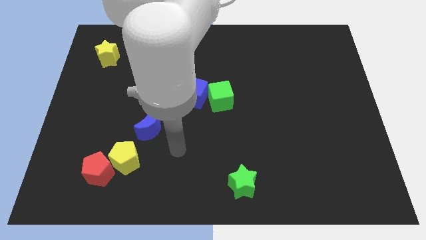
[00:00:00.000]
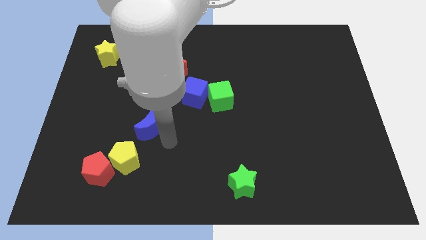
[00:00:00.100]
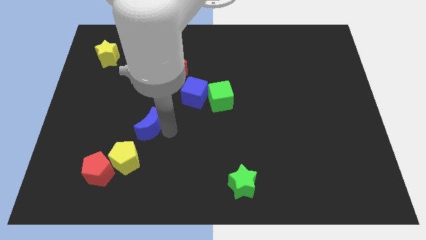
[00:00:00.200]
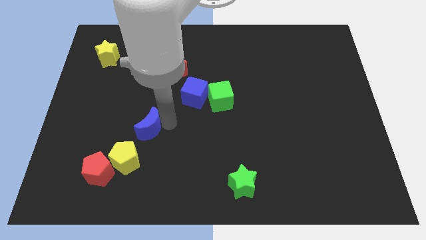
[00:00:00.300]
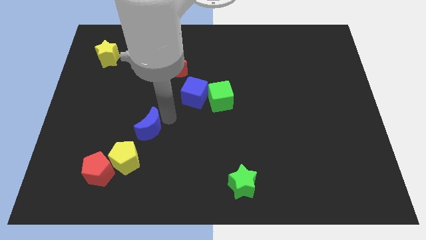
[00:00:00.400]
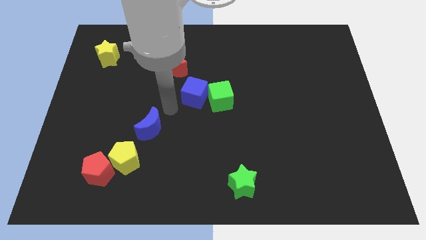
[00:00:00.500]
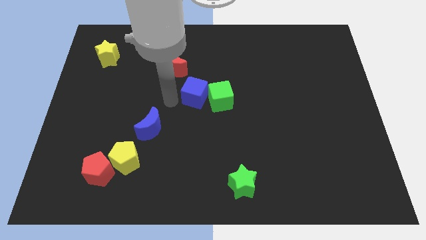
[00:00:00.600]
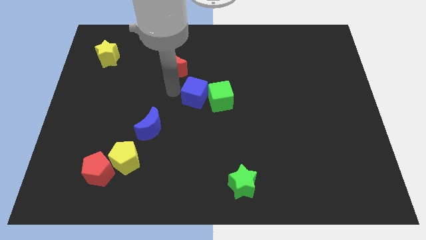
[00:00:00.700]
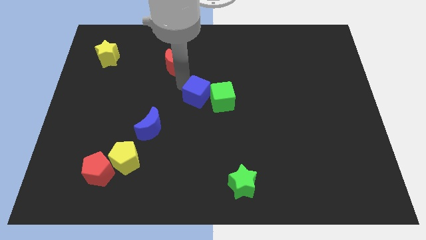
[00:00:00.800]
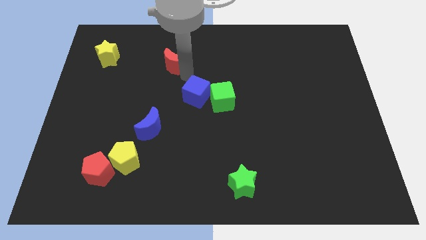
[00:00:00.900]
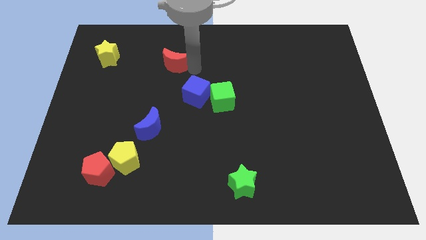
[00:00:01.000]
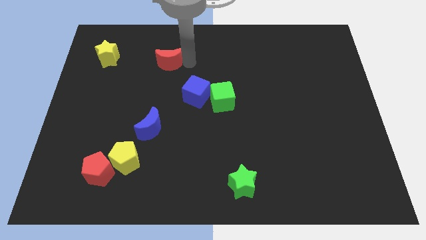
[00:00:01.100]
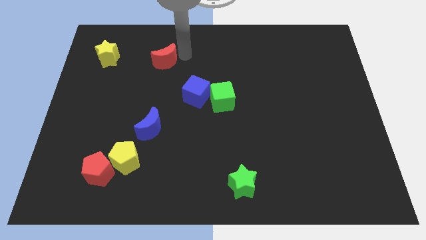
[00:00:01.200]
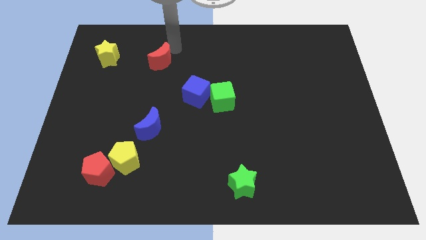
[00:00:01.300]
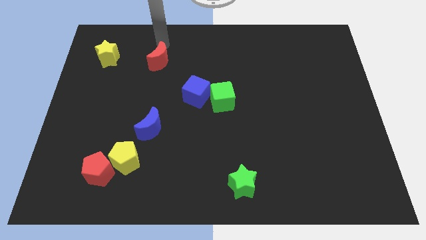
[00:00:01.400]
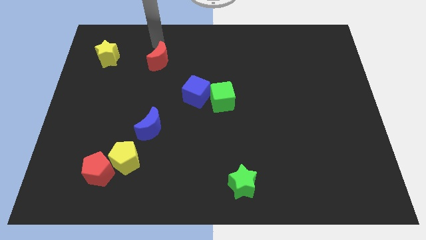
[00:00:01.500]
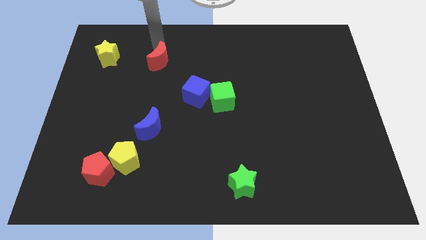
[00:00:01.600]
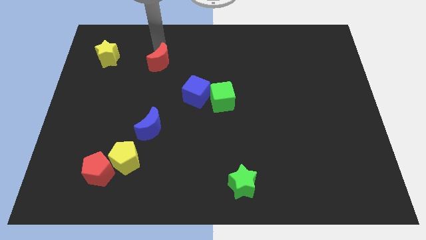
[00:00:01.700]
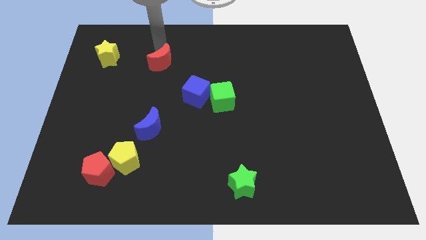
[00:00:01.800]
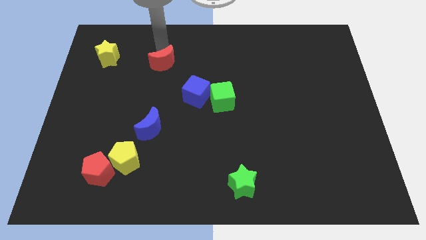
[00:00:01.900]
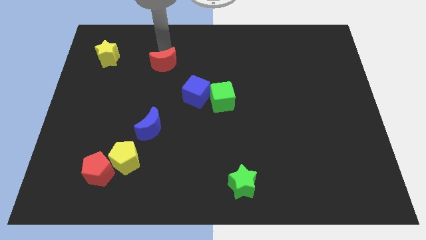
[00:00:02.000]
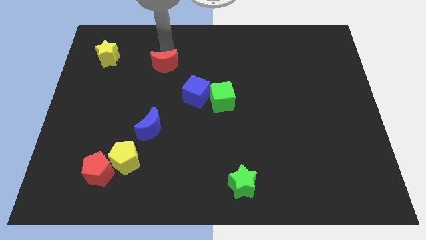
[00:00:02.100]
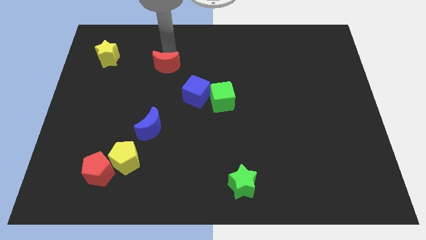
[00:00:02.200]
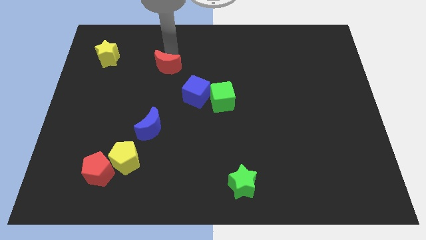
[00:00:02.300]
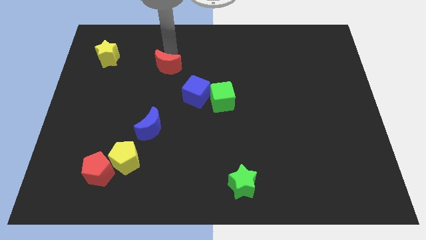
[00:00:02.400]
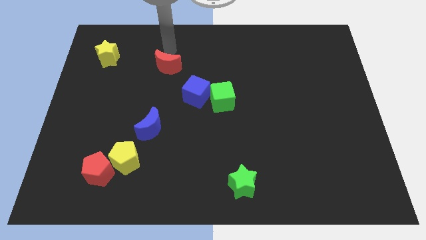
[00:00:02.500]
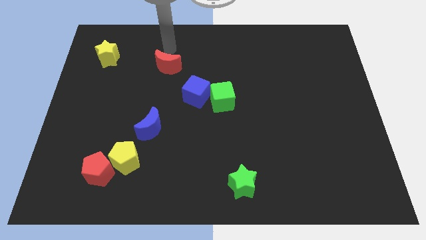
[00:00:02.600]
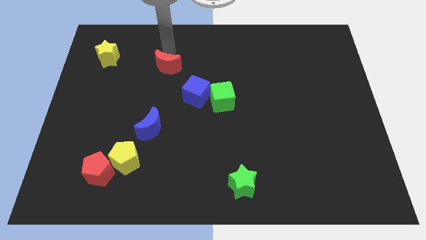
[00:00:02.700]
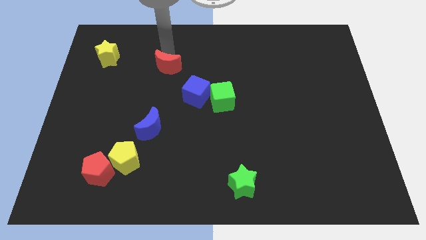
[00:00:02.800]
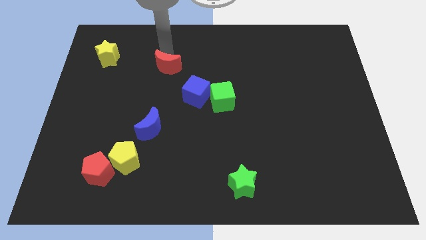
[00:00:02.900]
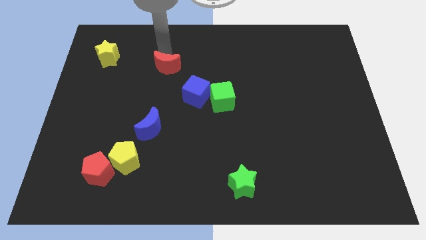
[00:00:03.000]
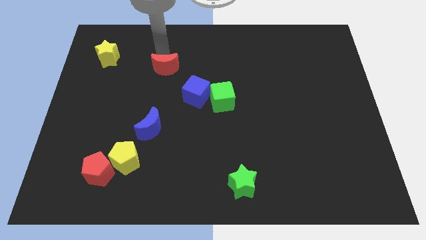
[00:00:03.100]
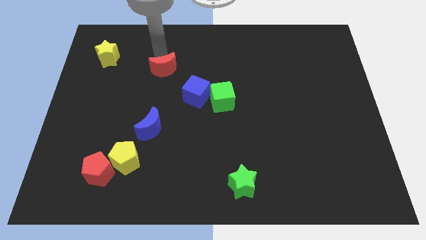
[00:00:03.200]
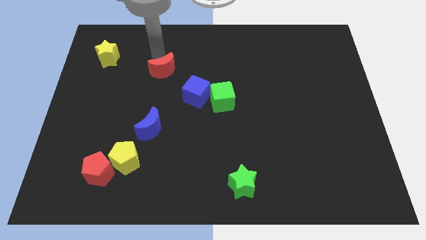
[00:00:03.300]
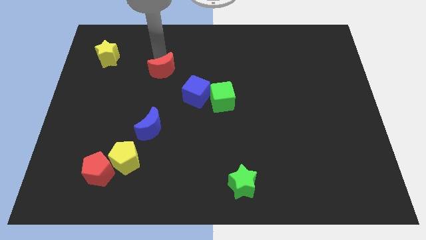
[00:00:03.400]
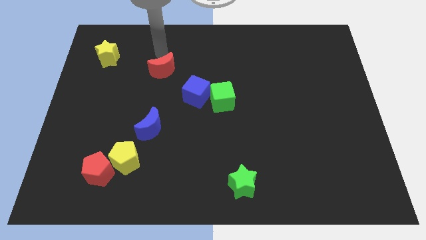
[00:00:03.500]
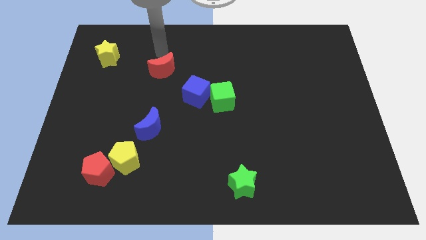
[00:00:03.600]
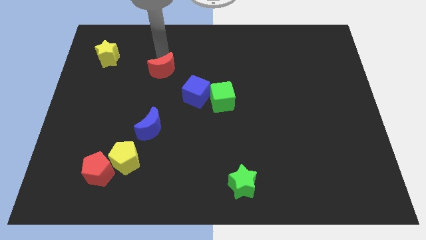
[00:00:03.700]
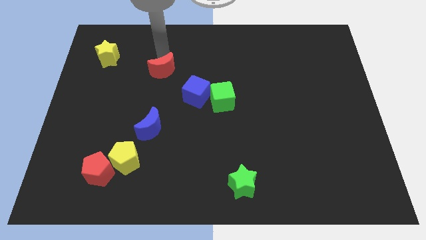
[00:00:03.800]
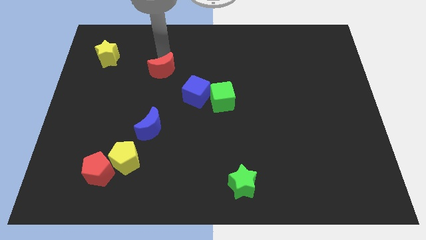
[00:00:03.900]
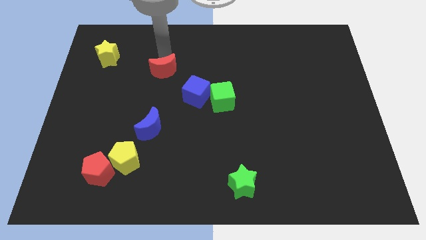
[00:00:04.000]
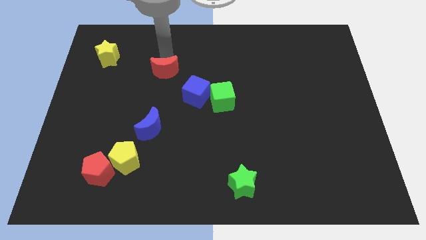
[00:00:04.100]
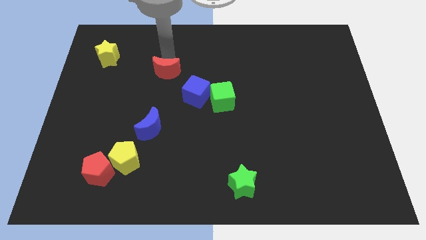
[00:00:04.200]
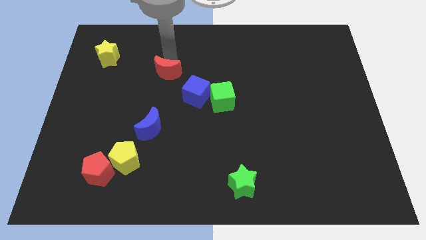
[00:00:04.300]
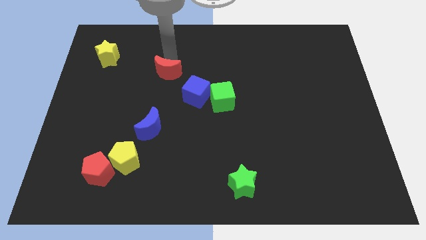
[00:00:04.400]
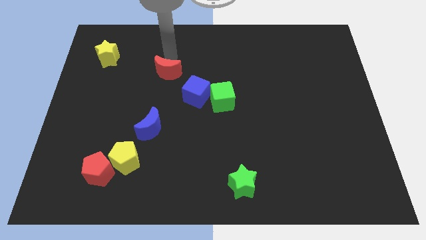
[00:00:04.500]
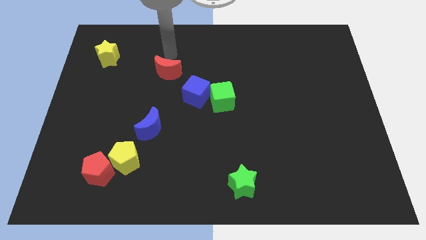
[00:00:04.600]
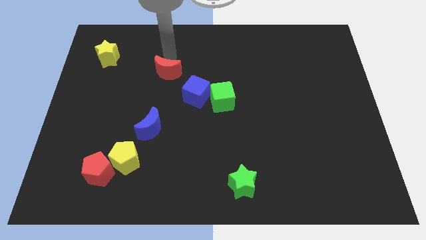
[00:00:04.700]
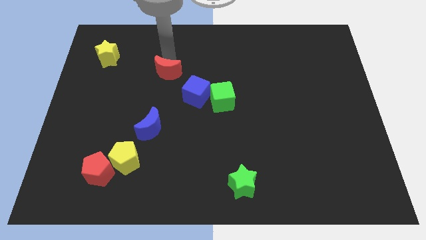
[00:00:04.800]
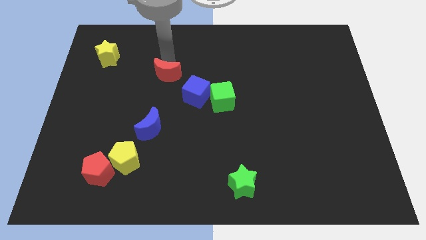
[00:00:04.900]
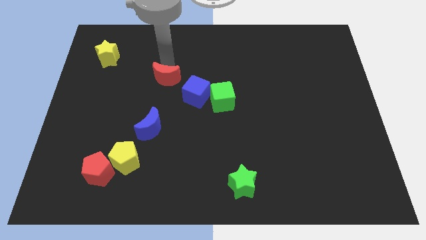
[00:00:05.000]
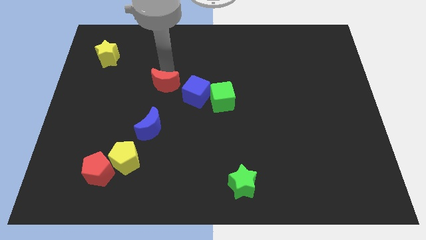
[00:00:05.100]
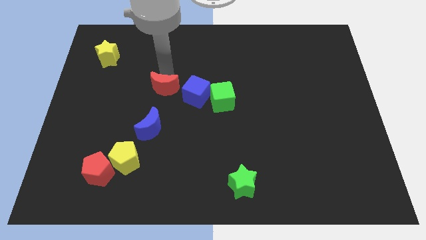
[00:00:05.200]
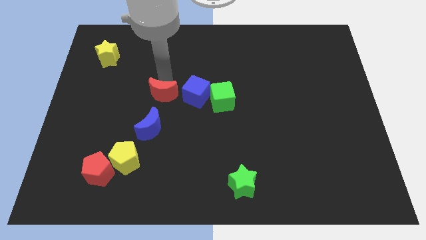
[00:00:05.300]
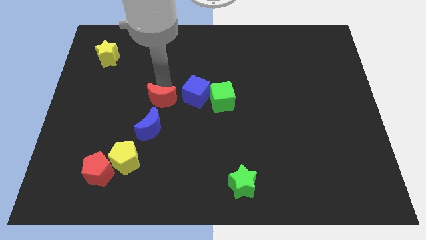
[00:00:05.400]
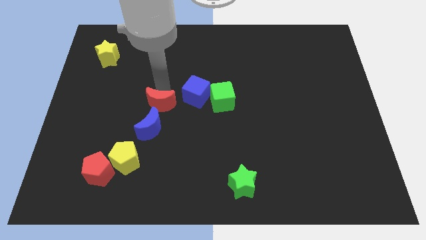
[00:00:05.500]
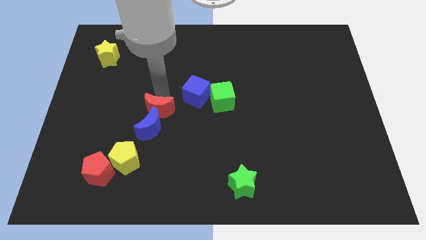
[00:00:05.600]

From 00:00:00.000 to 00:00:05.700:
slide the red moon towards the blue moon
